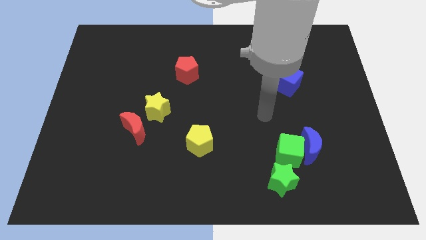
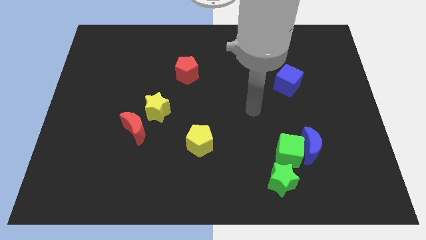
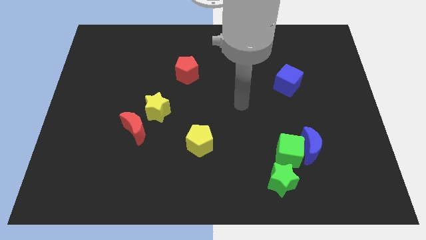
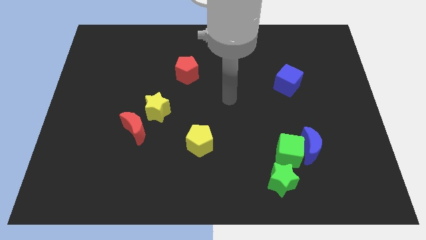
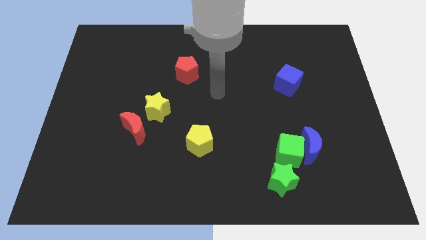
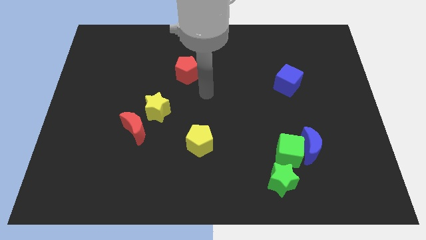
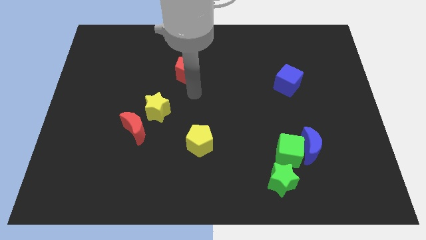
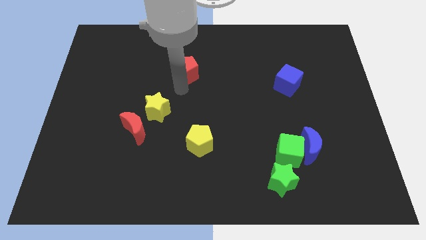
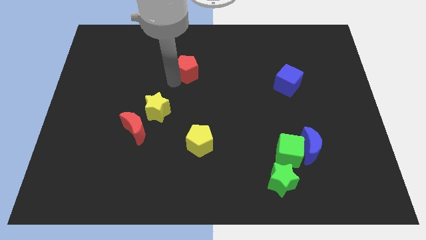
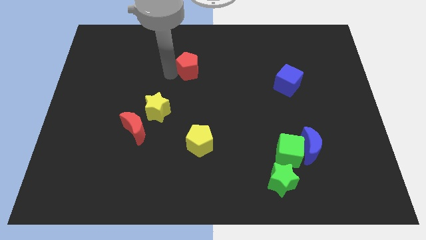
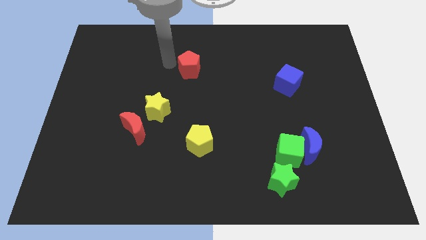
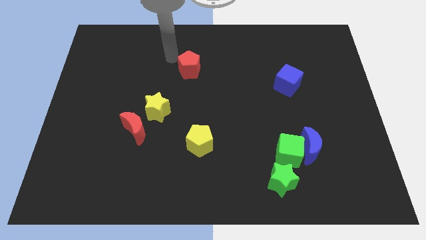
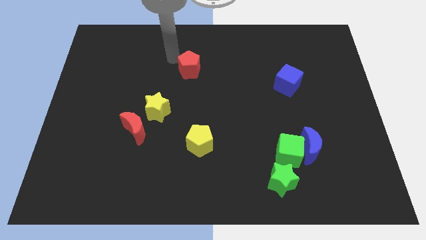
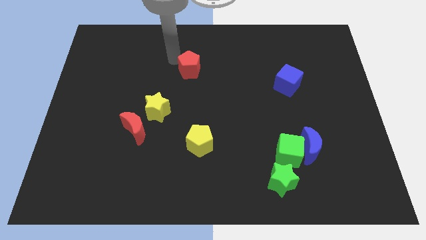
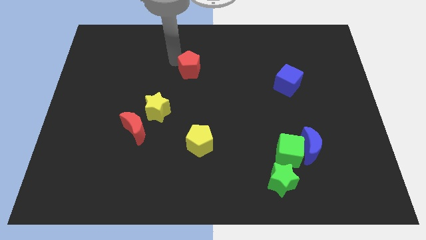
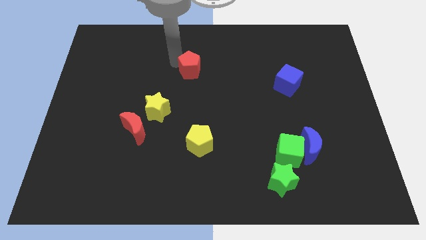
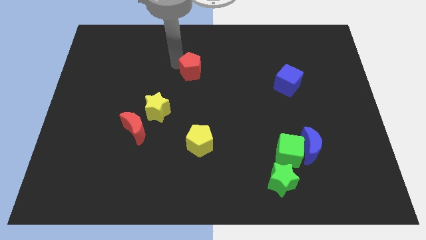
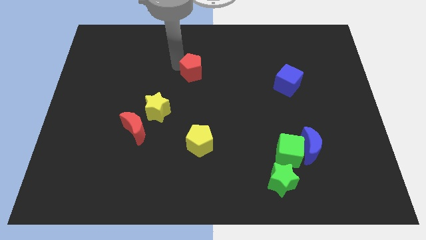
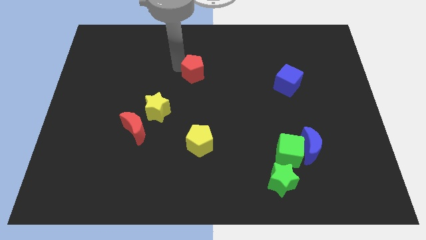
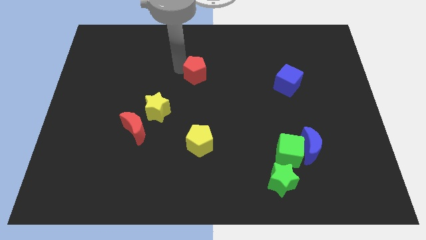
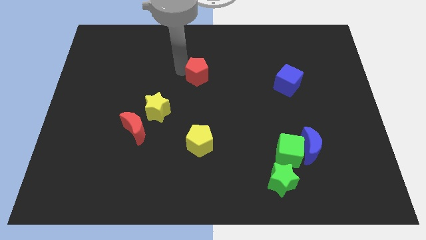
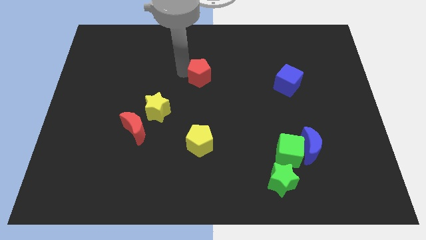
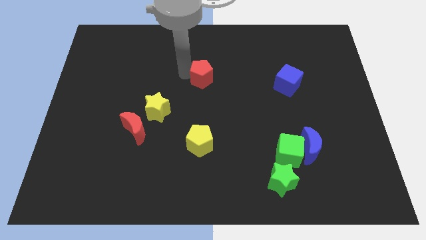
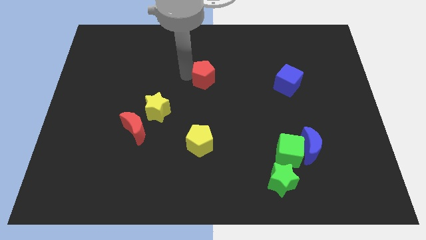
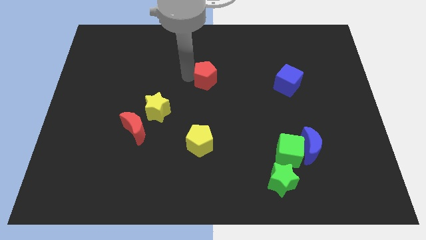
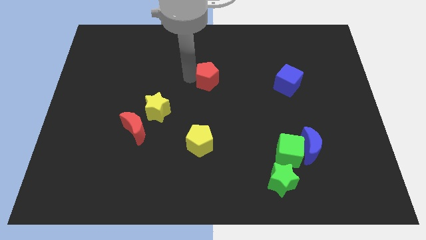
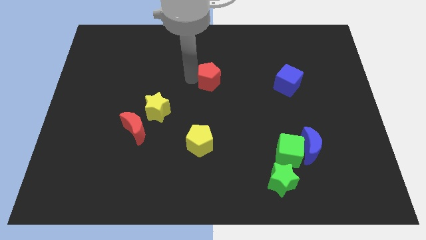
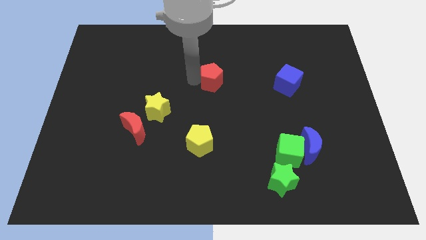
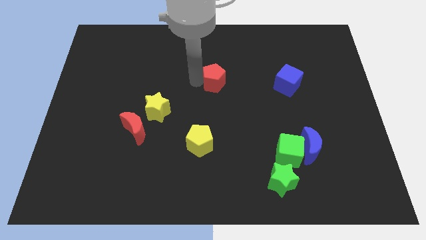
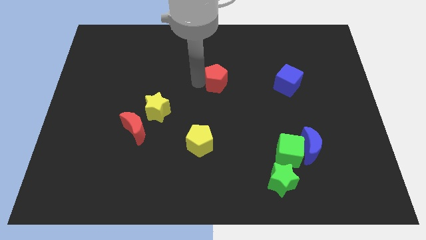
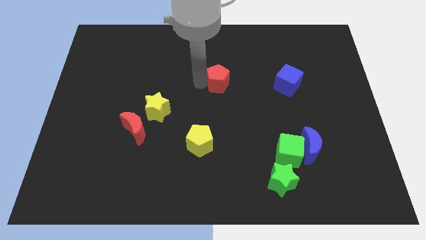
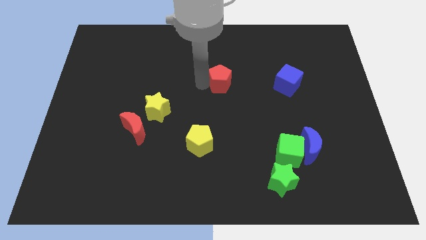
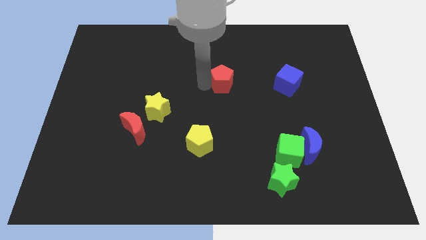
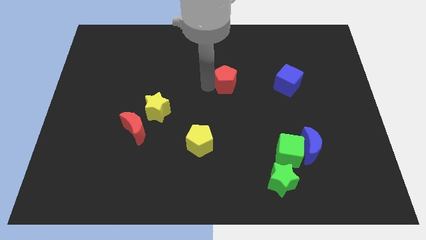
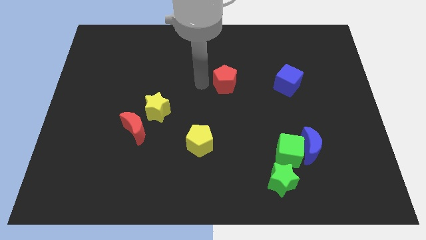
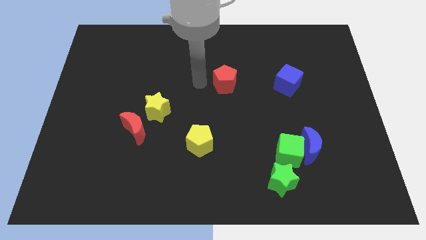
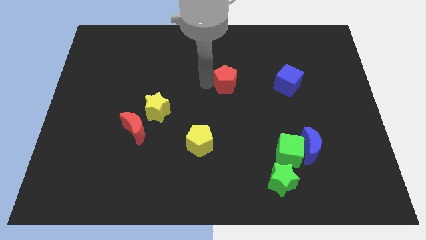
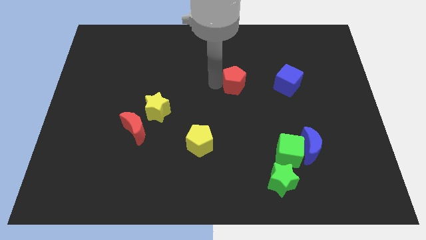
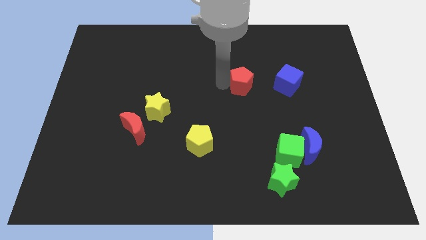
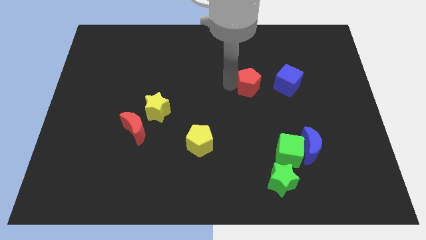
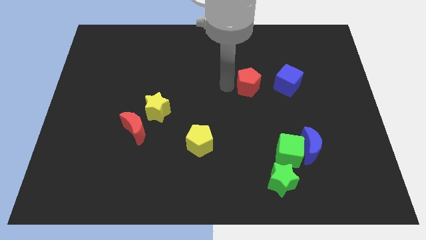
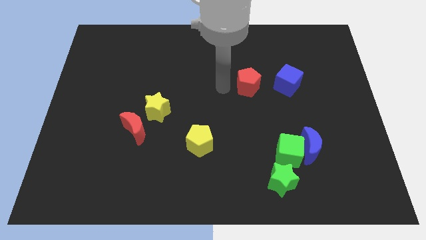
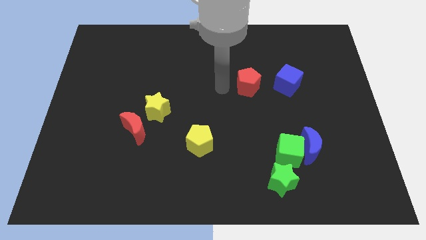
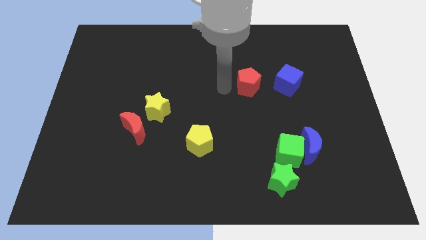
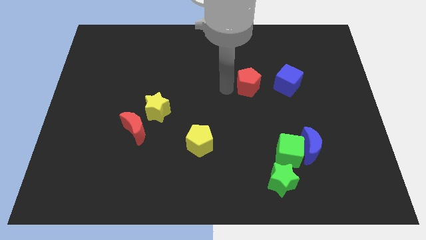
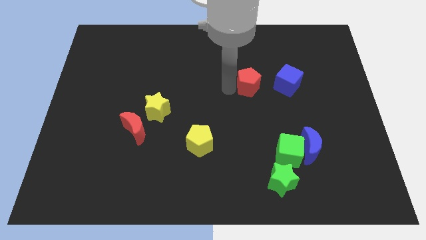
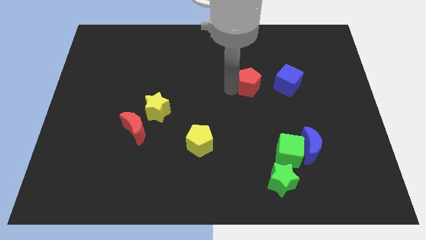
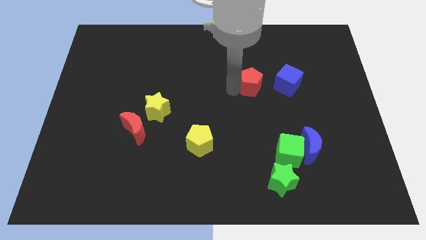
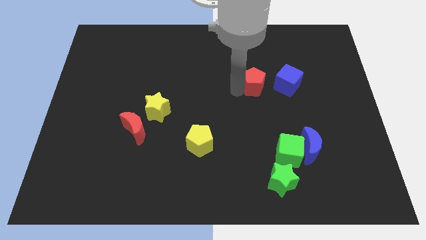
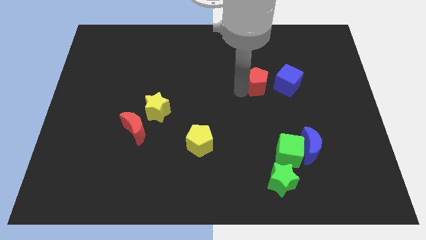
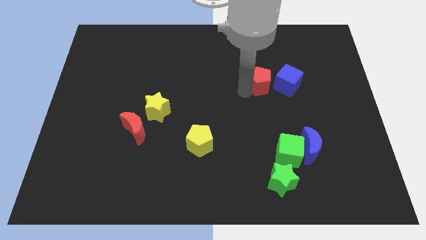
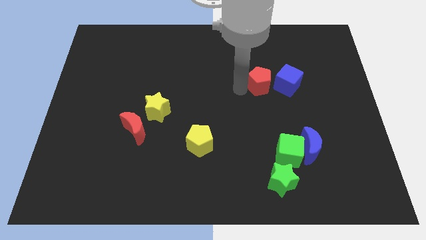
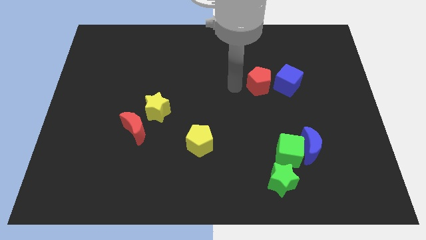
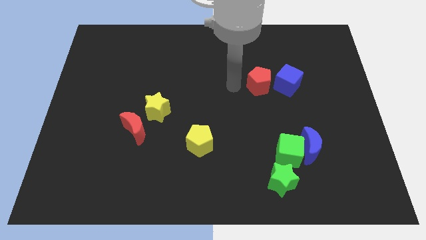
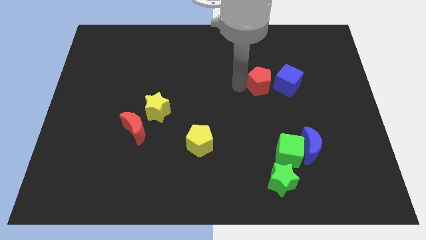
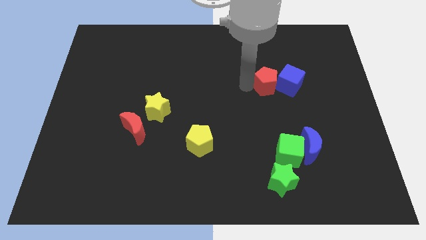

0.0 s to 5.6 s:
put the red pentagon to the blue cube

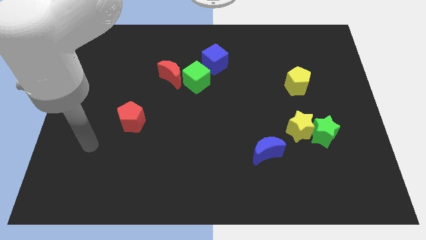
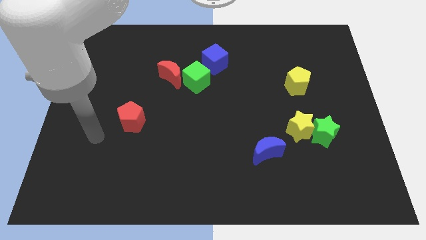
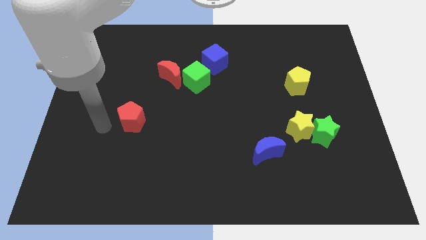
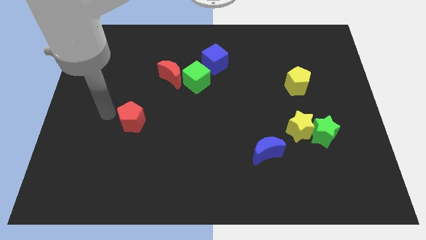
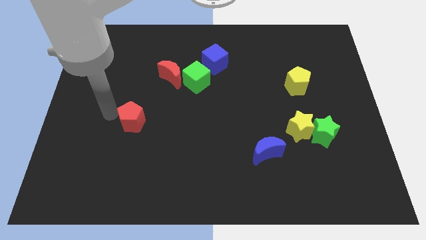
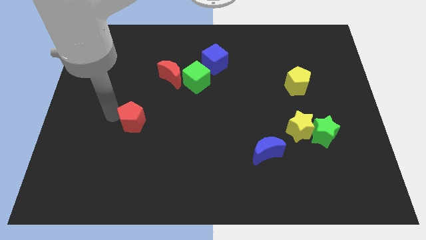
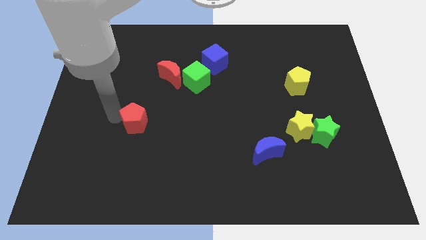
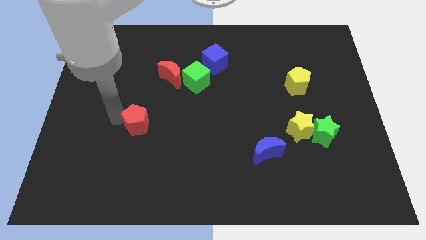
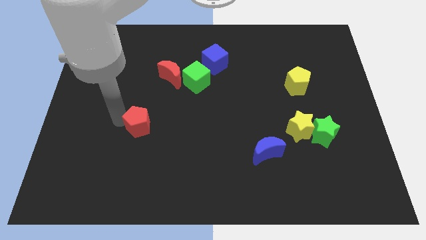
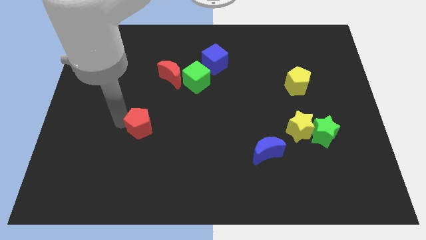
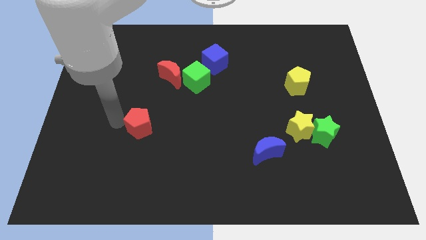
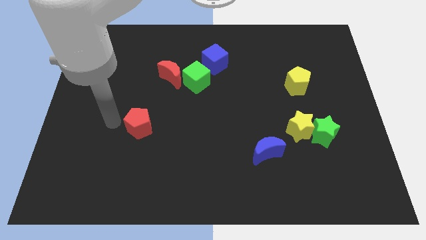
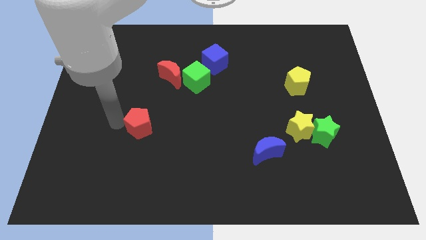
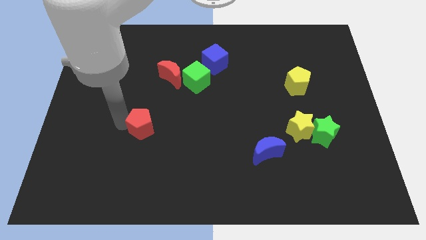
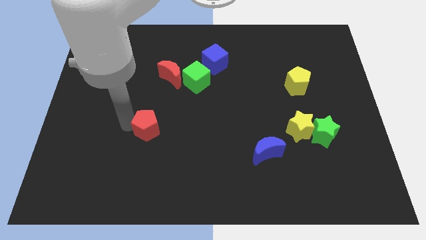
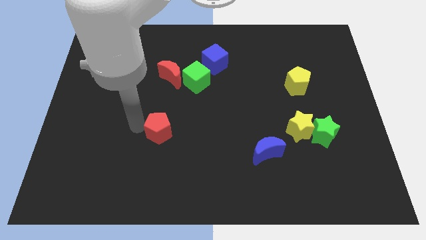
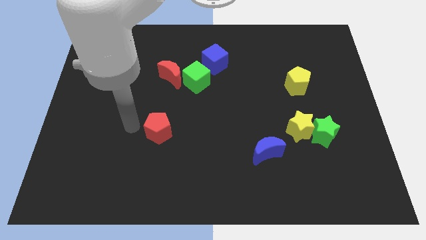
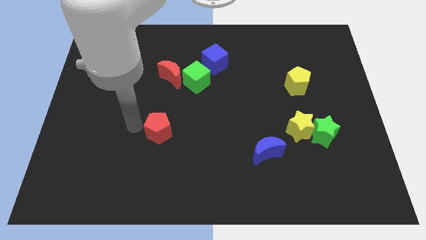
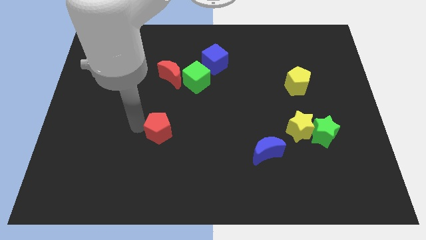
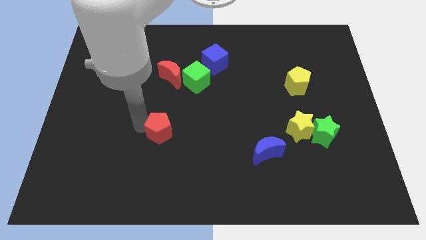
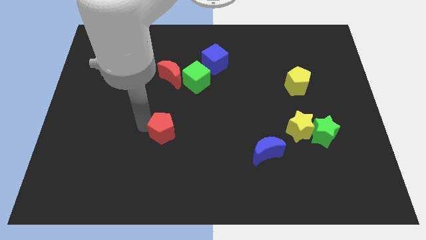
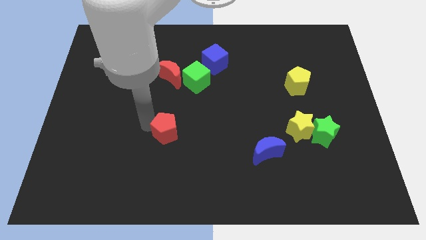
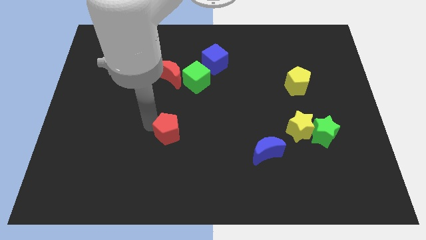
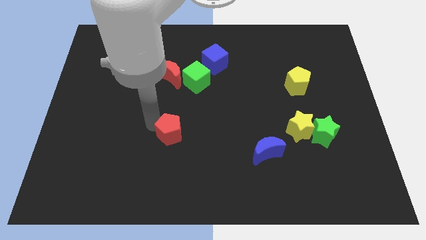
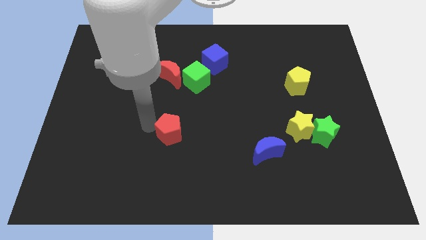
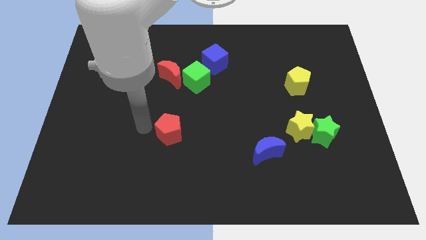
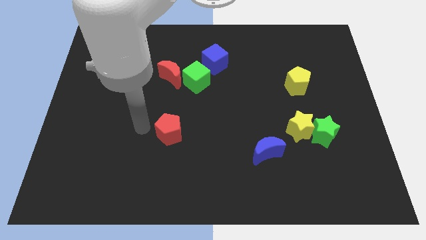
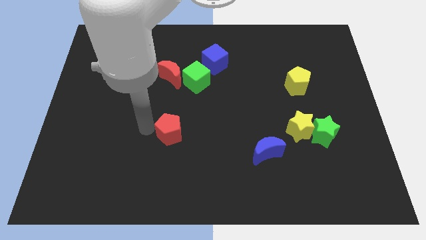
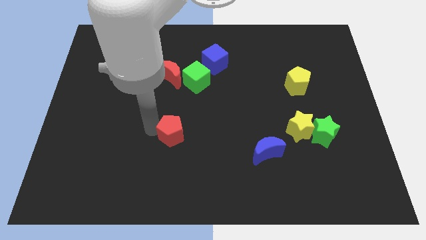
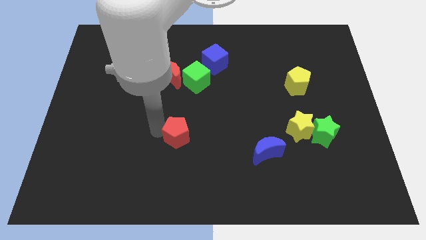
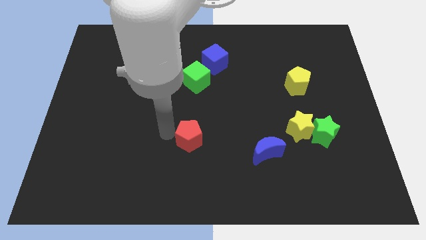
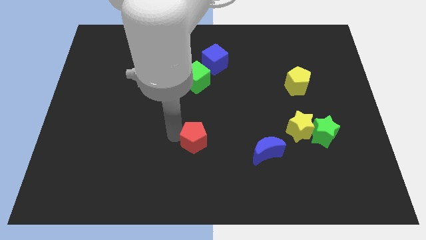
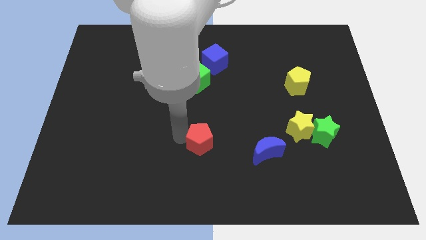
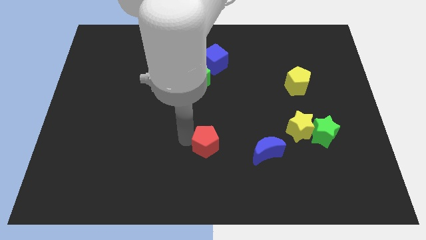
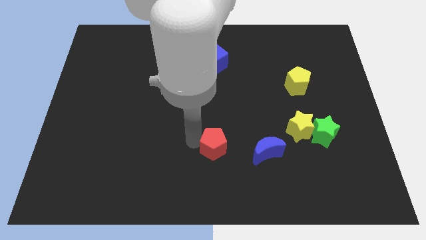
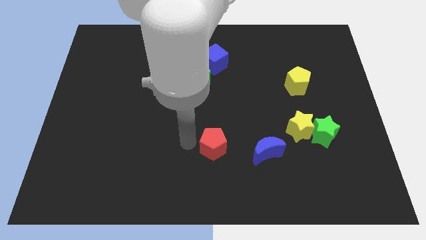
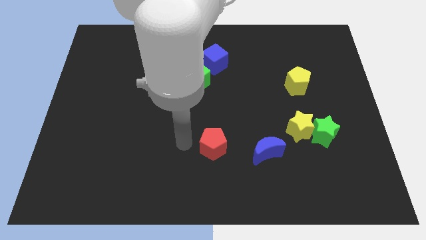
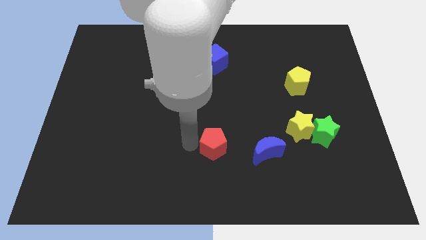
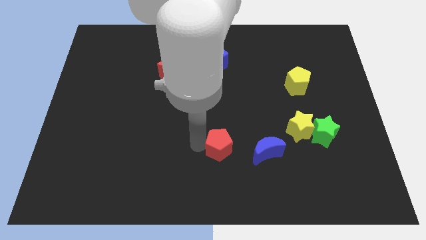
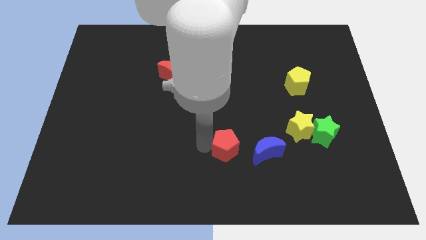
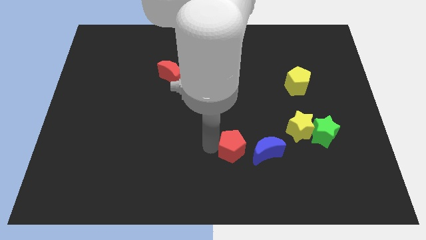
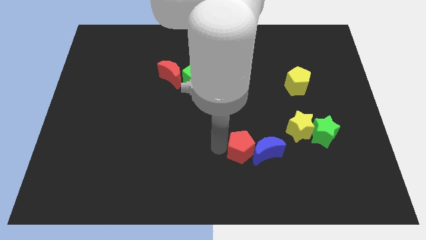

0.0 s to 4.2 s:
slide the red pentagon to the blue moon
